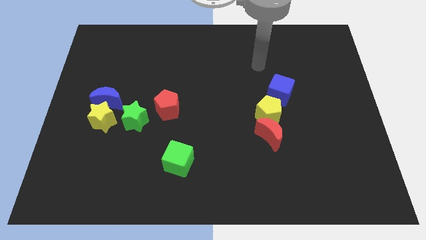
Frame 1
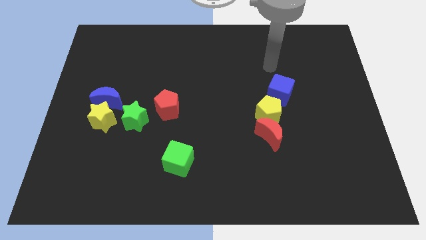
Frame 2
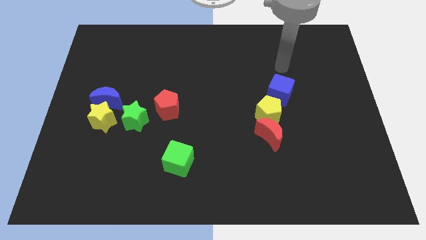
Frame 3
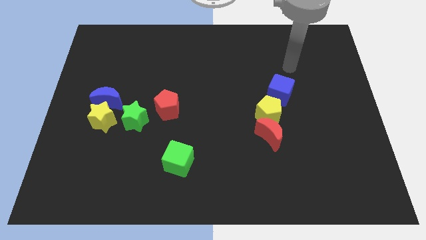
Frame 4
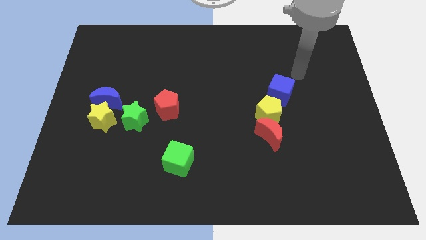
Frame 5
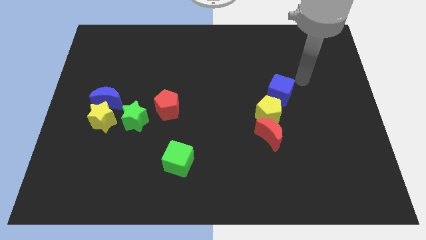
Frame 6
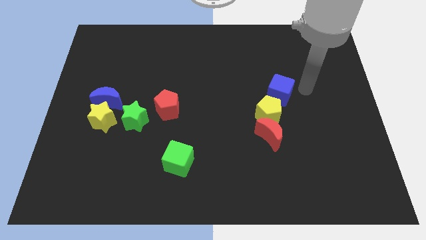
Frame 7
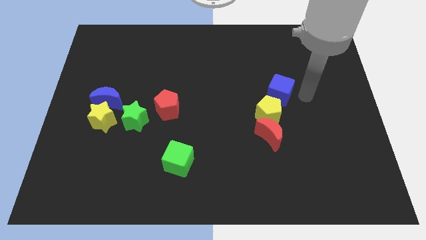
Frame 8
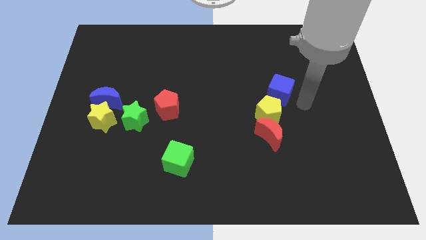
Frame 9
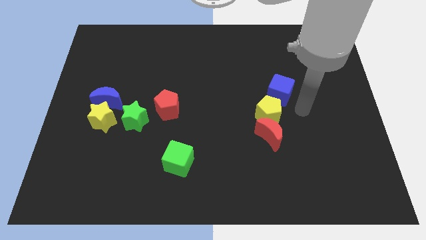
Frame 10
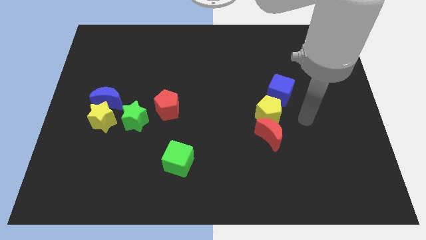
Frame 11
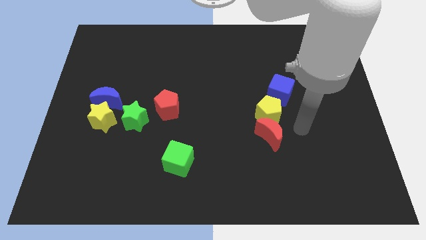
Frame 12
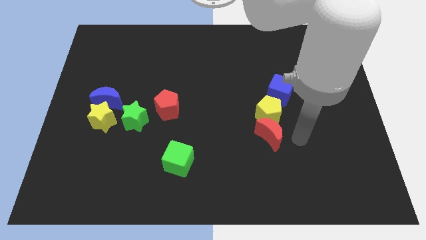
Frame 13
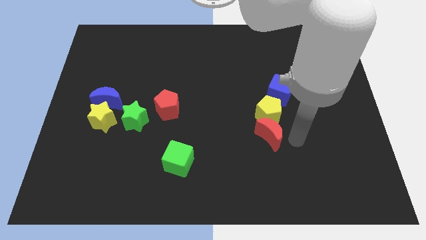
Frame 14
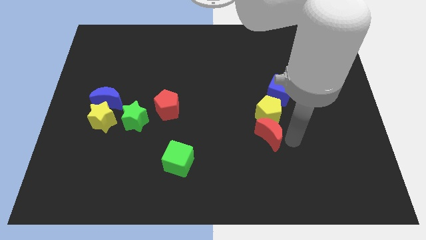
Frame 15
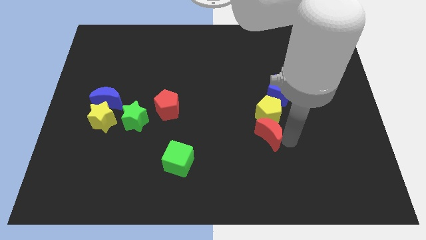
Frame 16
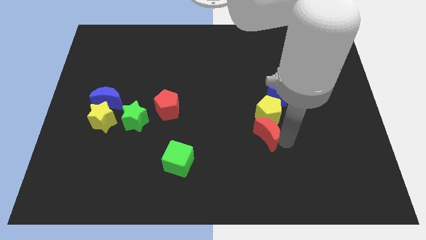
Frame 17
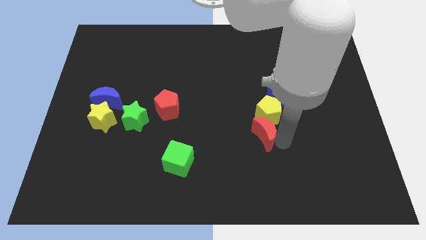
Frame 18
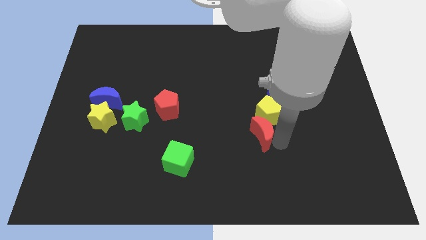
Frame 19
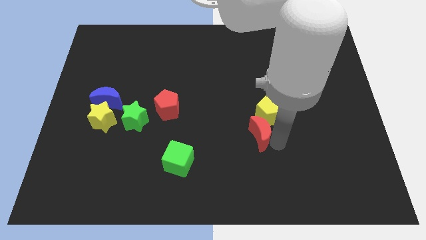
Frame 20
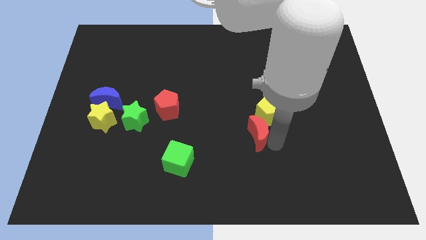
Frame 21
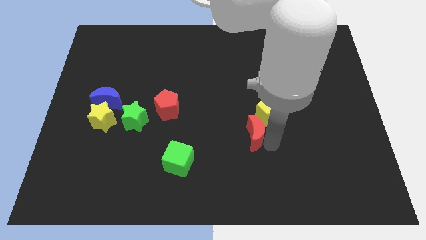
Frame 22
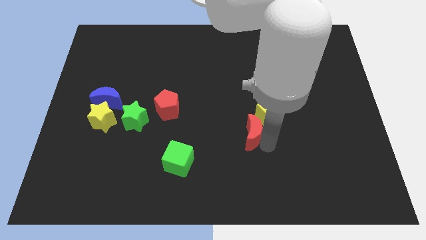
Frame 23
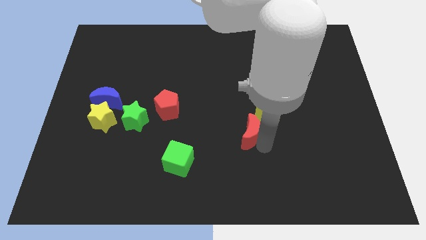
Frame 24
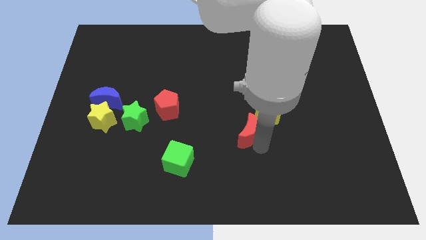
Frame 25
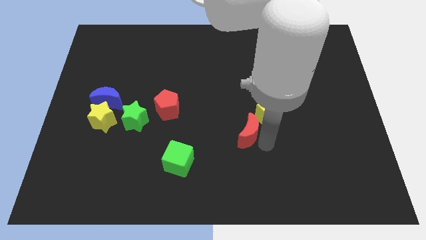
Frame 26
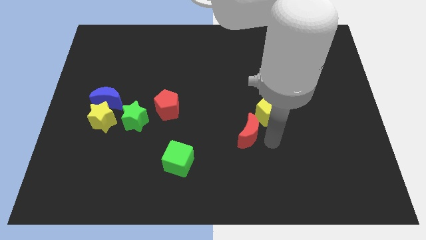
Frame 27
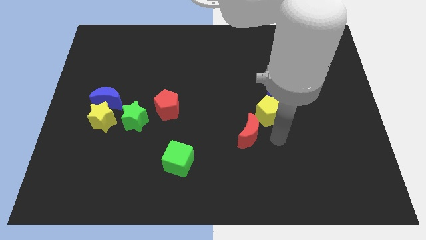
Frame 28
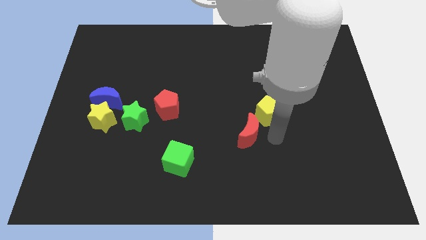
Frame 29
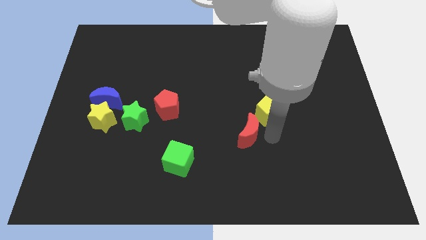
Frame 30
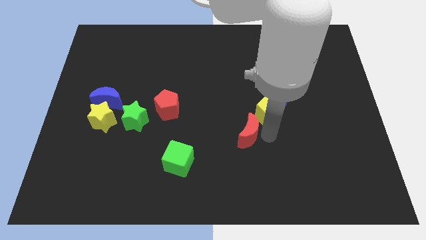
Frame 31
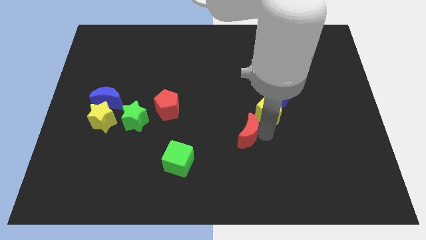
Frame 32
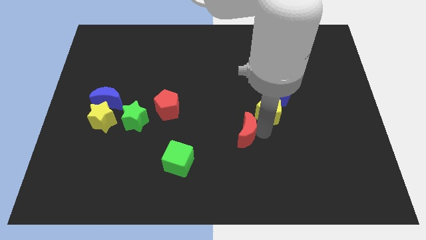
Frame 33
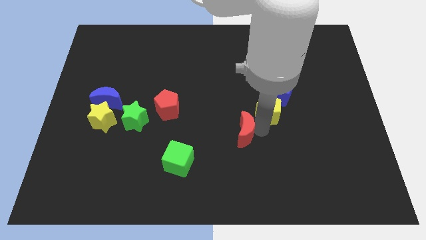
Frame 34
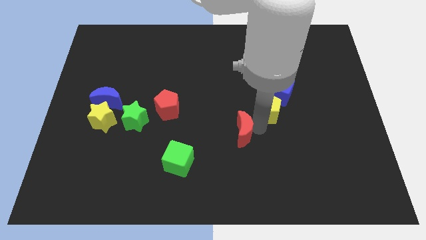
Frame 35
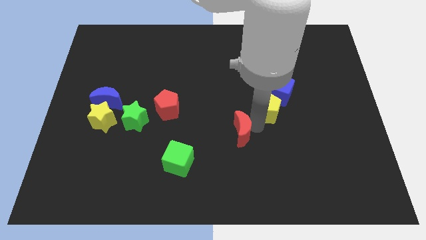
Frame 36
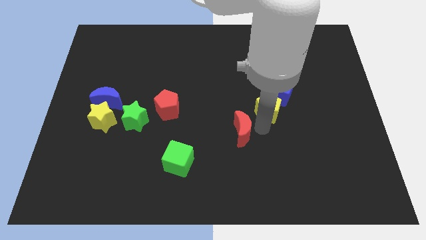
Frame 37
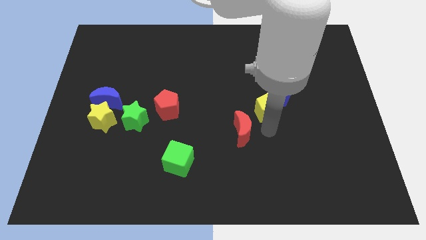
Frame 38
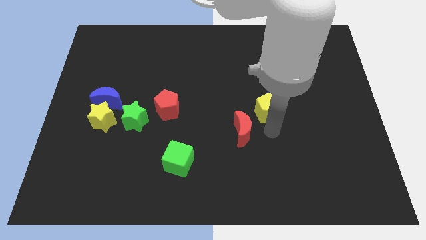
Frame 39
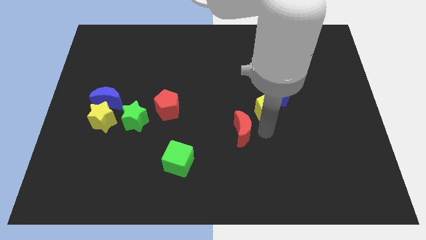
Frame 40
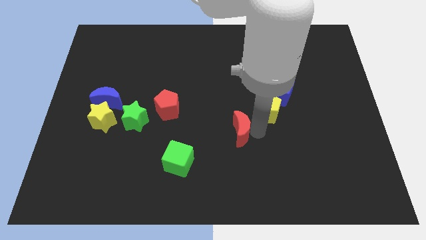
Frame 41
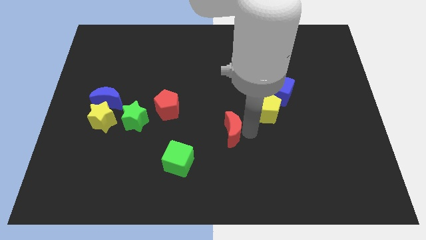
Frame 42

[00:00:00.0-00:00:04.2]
move the red moon to the left a little bit

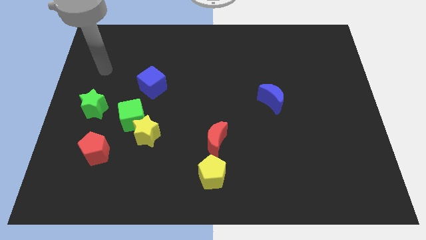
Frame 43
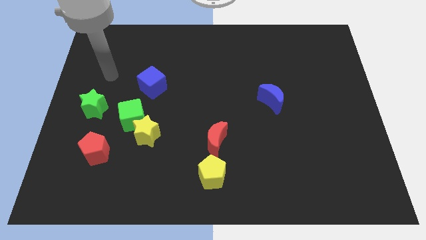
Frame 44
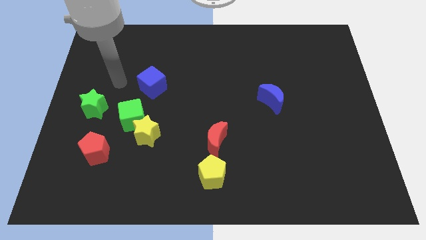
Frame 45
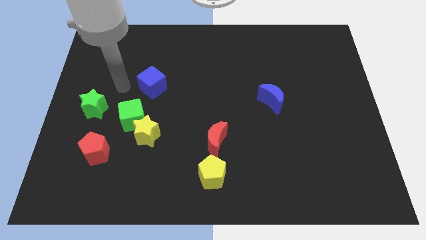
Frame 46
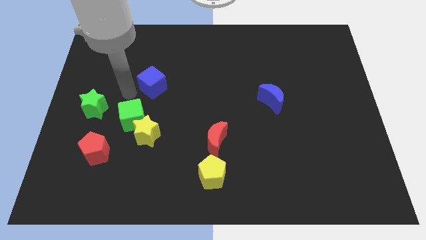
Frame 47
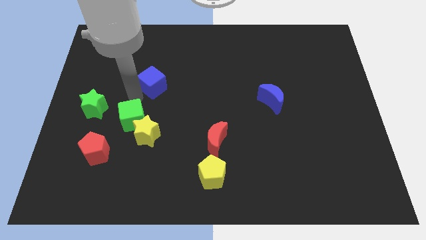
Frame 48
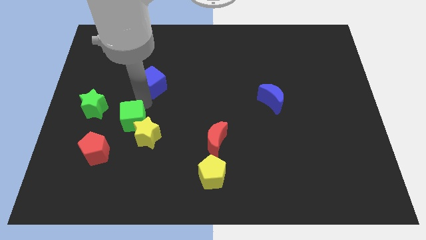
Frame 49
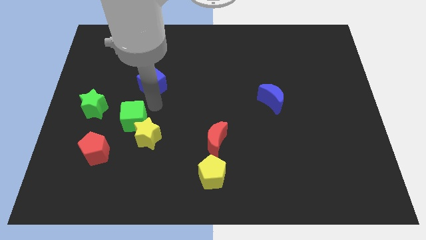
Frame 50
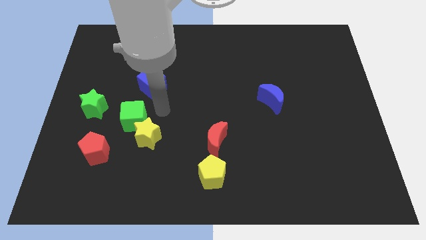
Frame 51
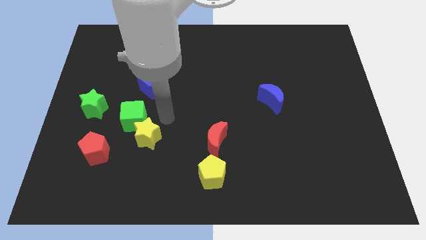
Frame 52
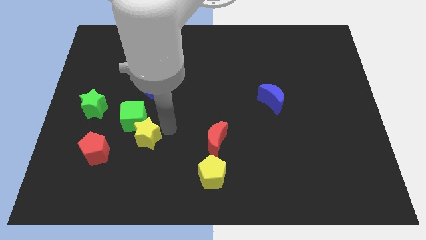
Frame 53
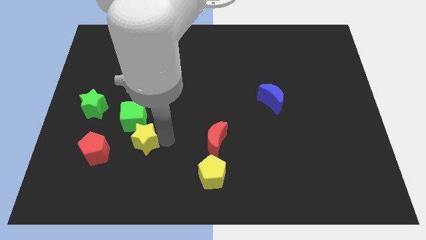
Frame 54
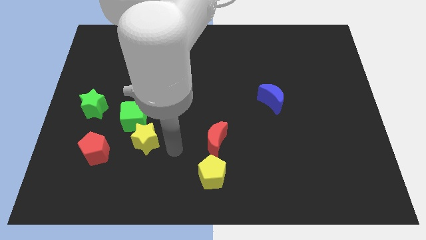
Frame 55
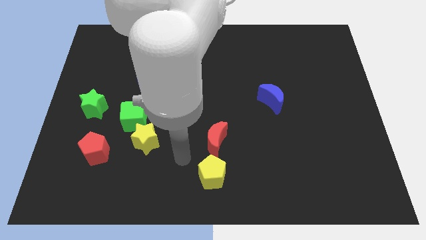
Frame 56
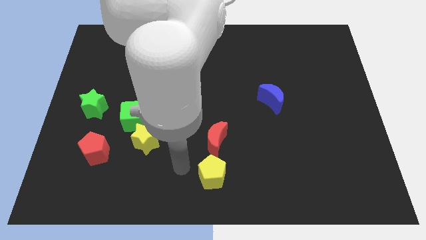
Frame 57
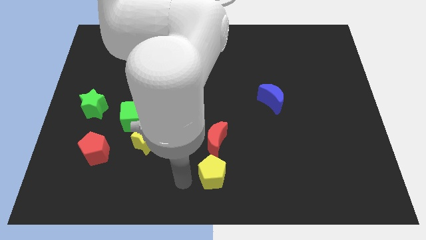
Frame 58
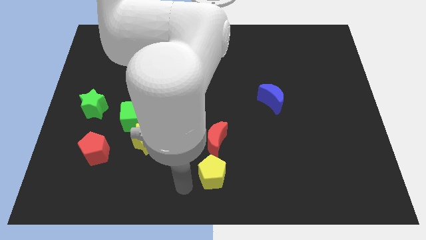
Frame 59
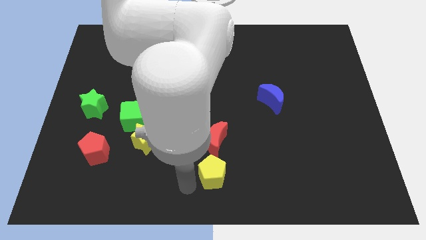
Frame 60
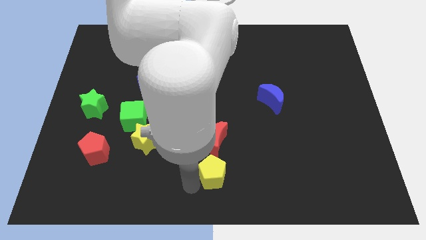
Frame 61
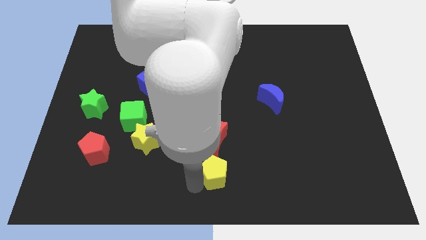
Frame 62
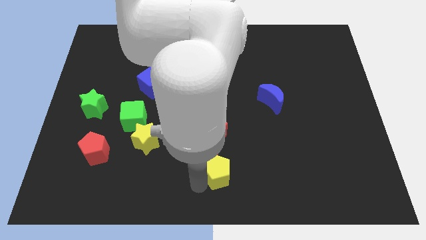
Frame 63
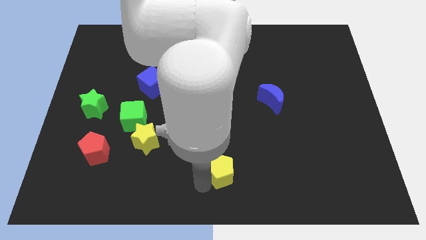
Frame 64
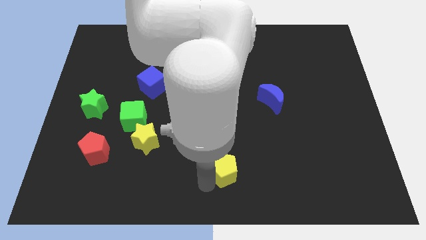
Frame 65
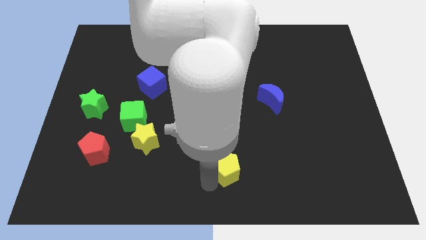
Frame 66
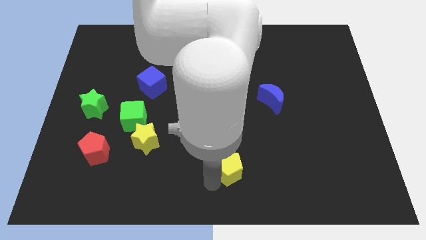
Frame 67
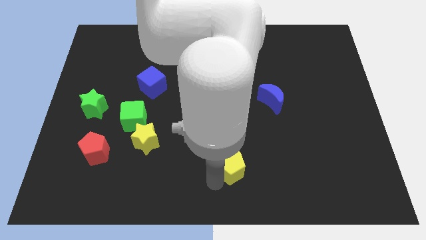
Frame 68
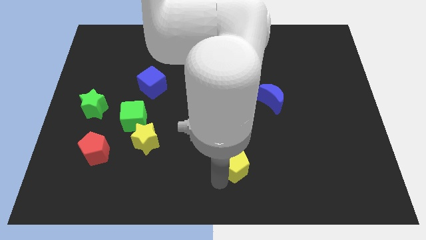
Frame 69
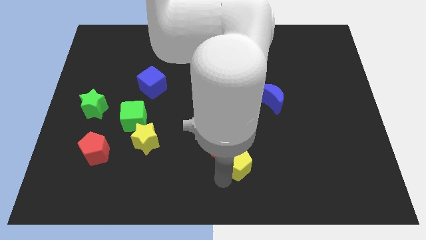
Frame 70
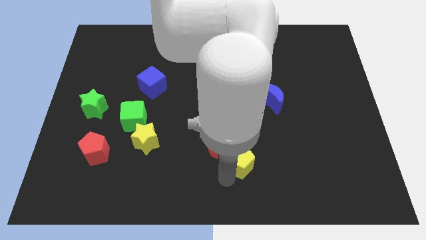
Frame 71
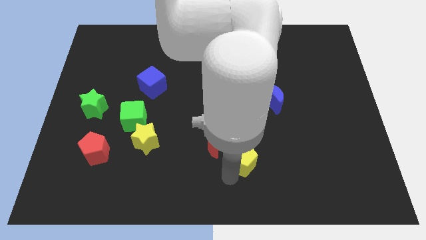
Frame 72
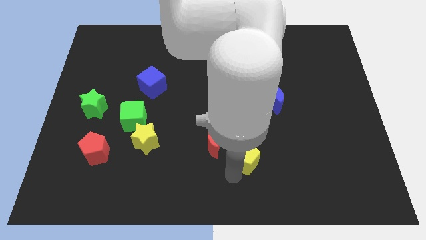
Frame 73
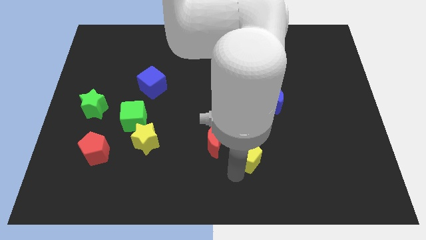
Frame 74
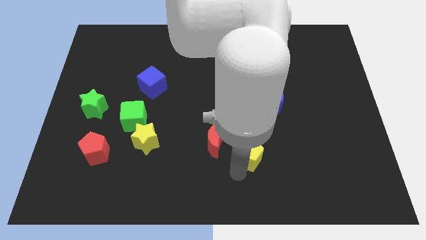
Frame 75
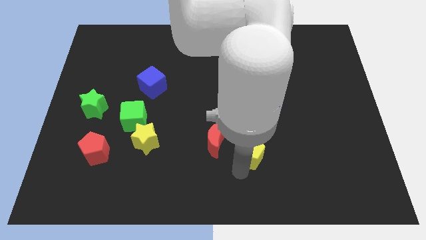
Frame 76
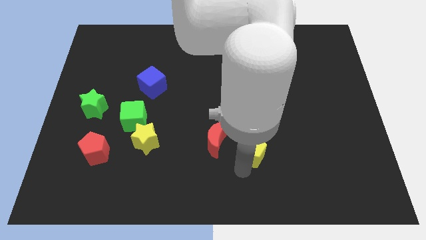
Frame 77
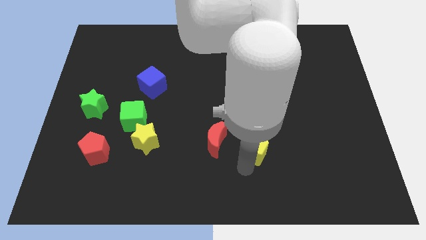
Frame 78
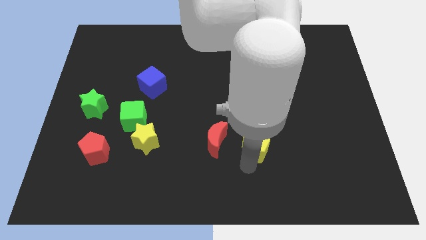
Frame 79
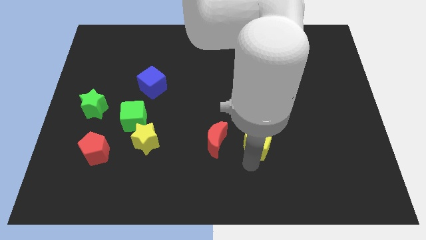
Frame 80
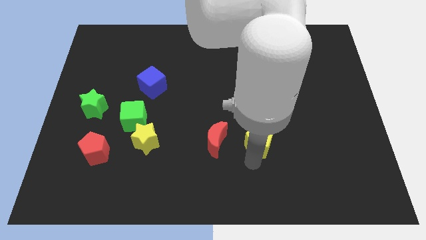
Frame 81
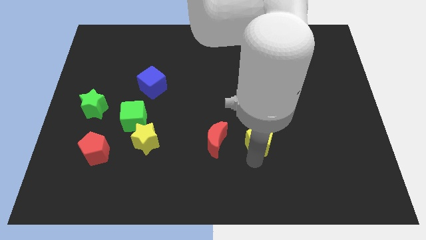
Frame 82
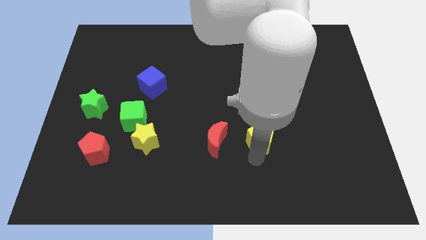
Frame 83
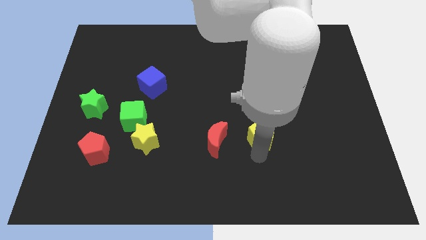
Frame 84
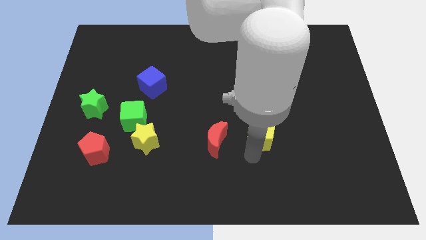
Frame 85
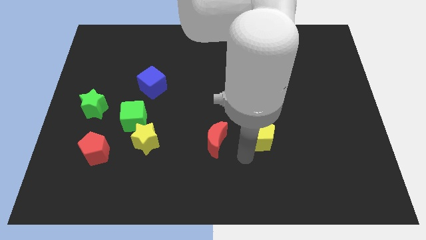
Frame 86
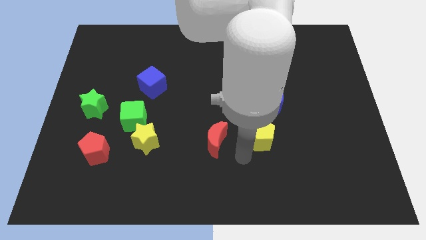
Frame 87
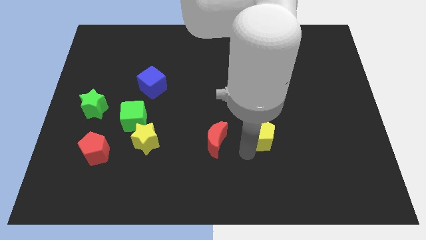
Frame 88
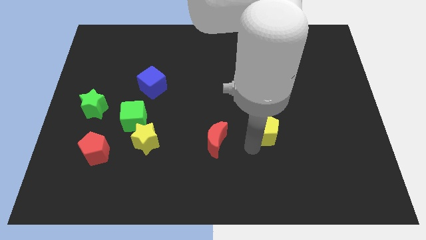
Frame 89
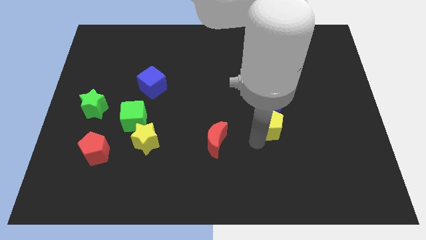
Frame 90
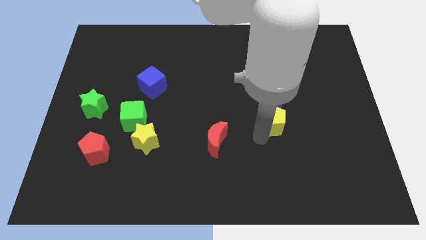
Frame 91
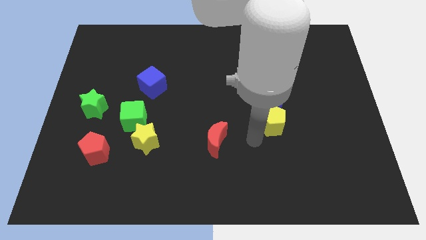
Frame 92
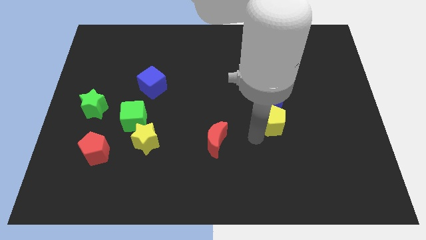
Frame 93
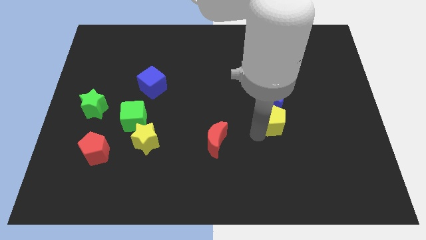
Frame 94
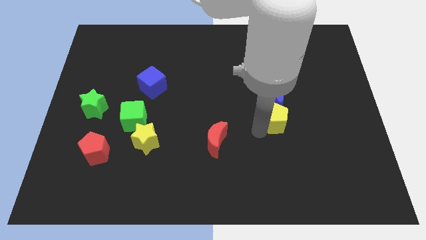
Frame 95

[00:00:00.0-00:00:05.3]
push the yellow pentagon up and then to the right
